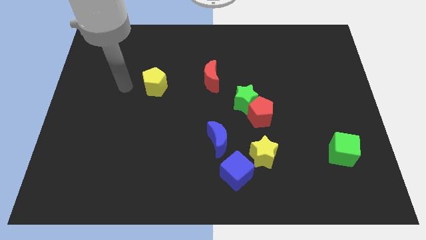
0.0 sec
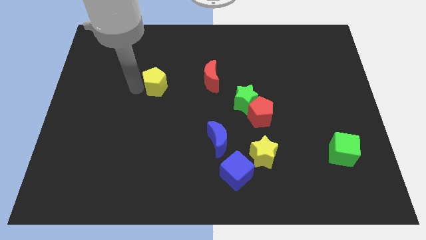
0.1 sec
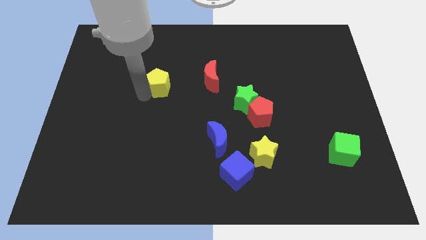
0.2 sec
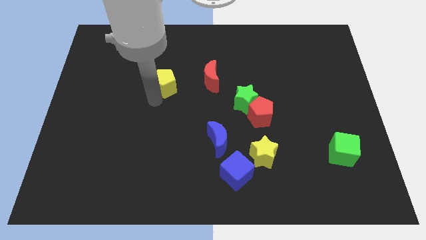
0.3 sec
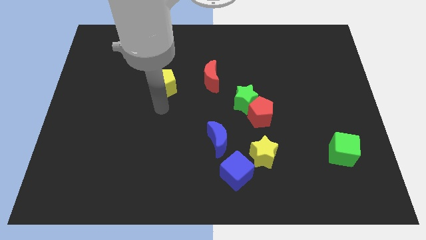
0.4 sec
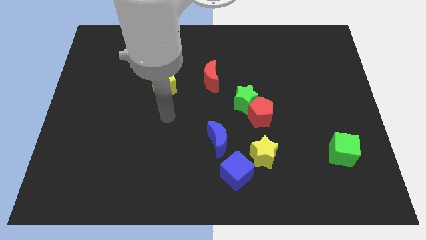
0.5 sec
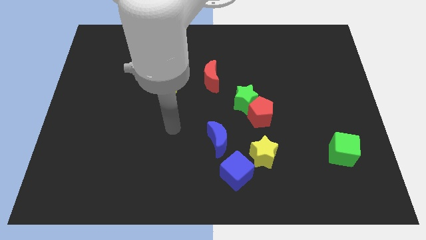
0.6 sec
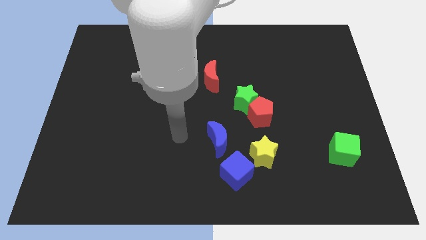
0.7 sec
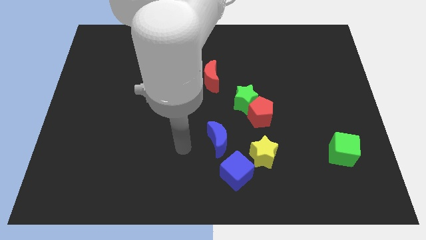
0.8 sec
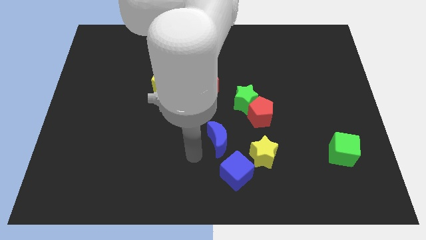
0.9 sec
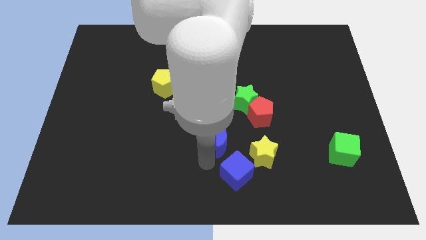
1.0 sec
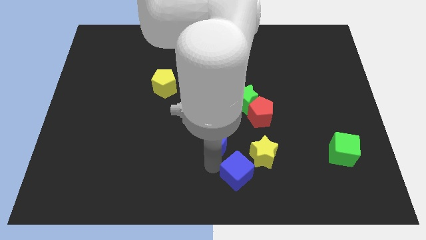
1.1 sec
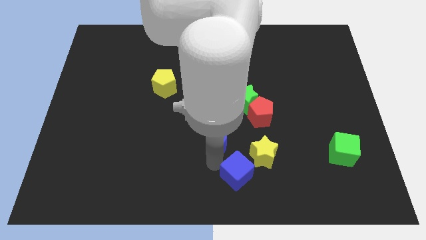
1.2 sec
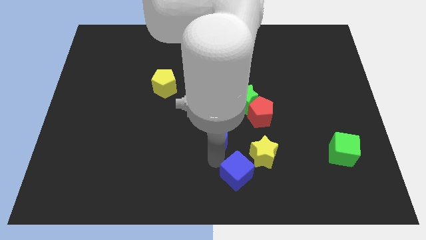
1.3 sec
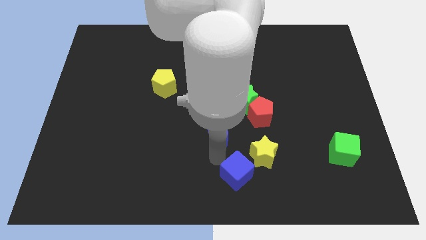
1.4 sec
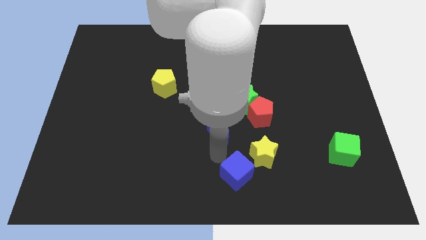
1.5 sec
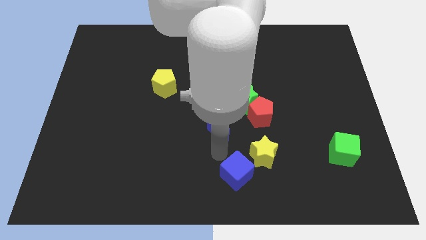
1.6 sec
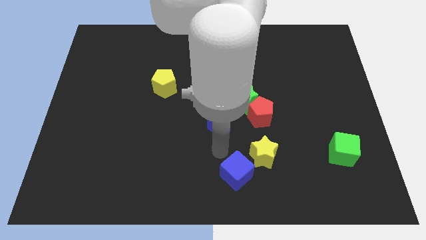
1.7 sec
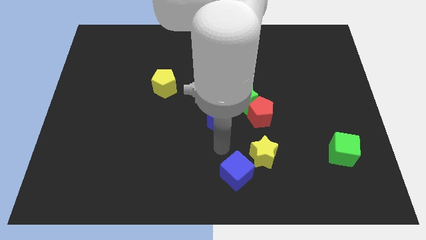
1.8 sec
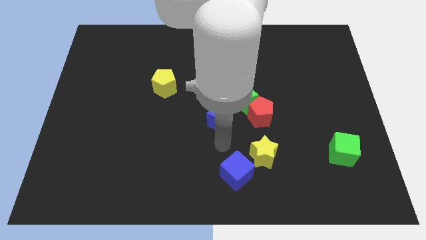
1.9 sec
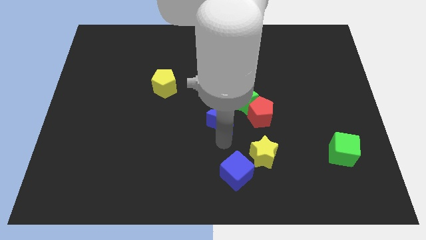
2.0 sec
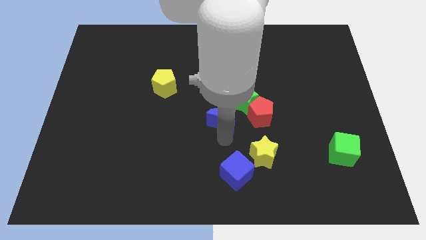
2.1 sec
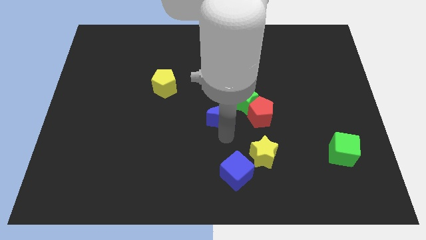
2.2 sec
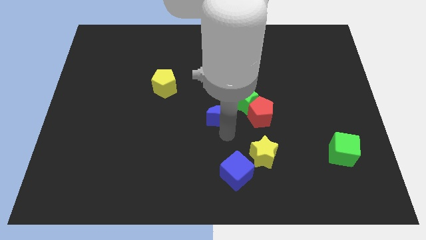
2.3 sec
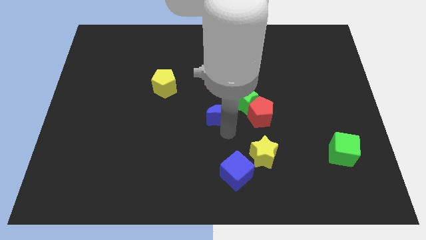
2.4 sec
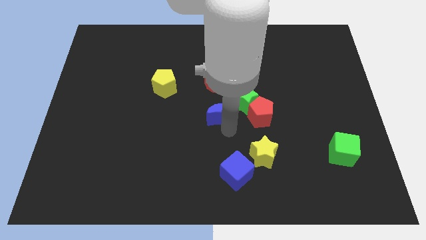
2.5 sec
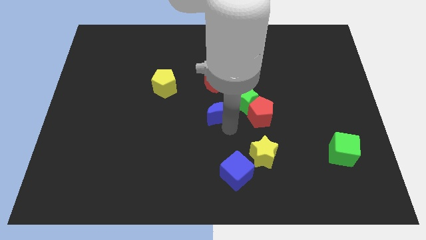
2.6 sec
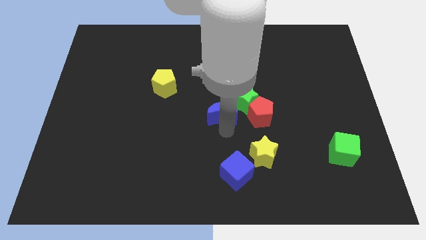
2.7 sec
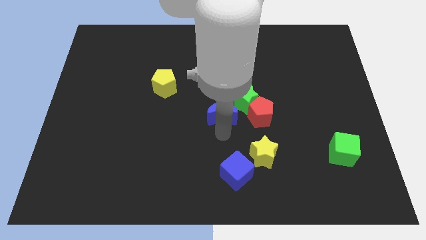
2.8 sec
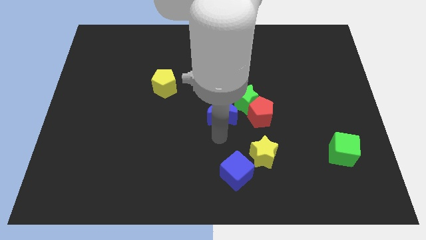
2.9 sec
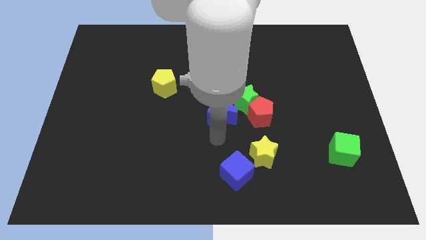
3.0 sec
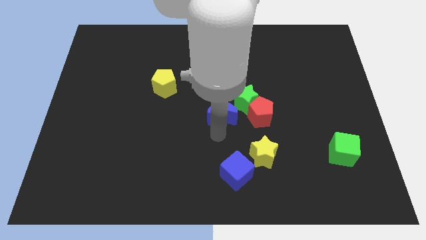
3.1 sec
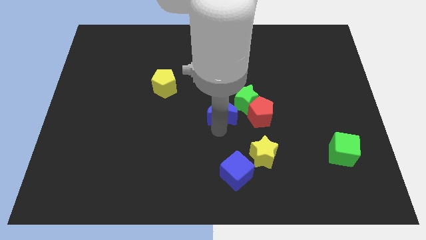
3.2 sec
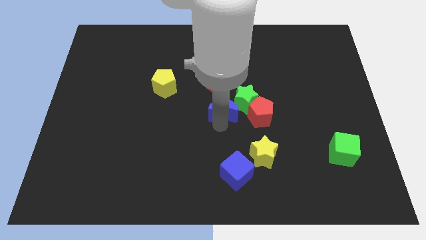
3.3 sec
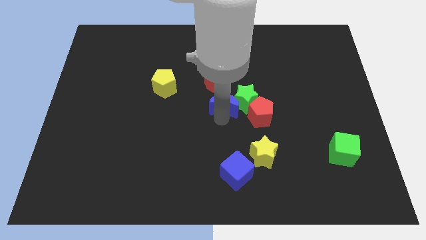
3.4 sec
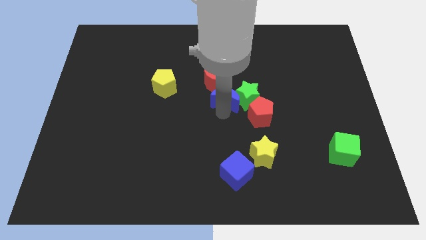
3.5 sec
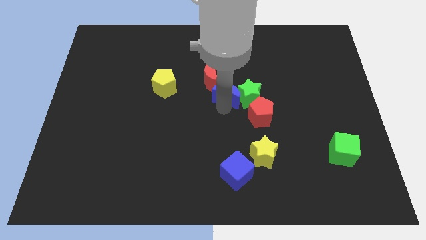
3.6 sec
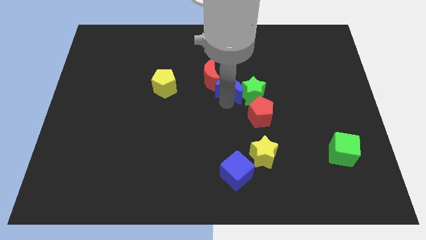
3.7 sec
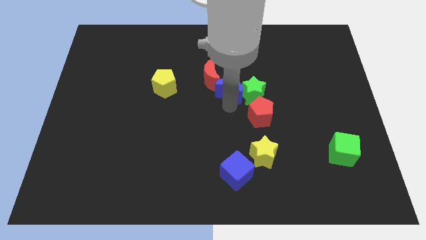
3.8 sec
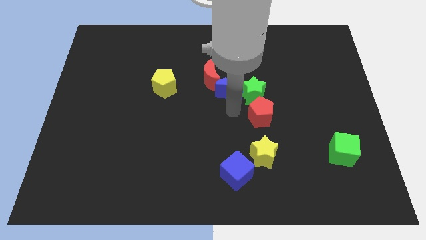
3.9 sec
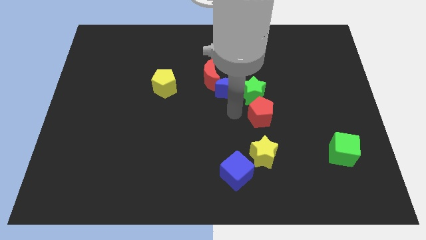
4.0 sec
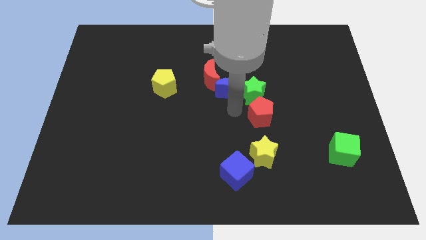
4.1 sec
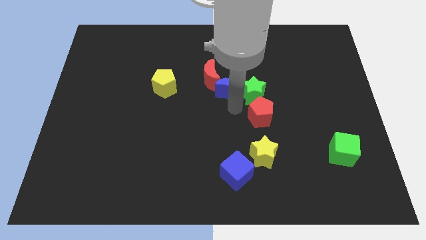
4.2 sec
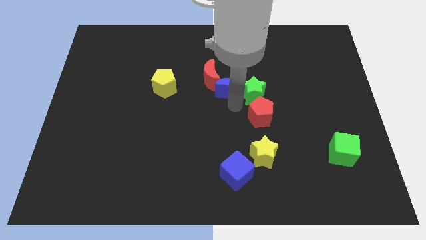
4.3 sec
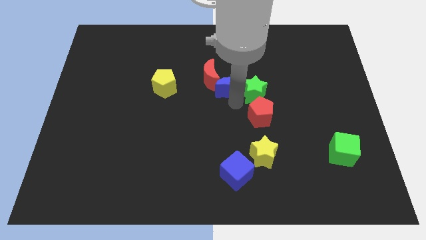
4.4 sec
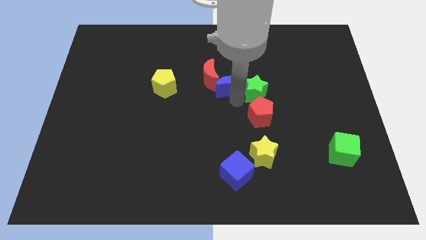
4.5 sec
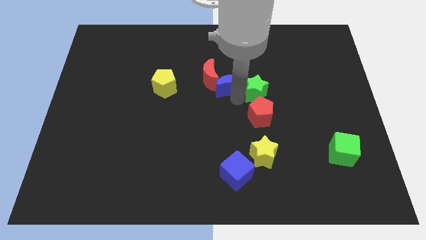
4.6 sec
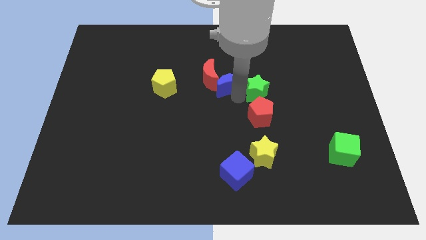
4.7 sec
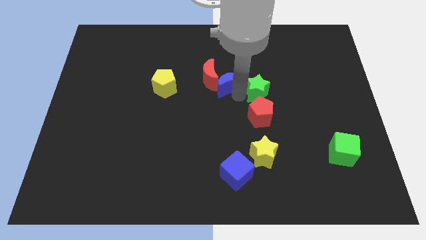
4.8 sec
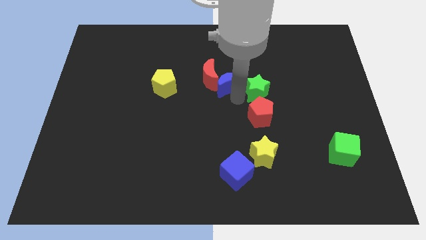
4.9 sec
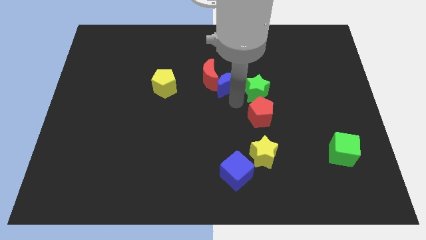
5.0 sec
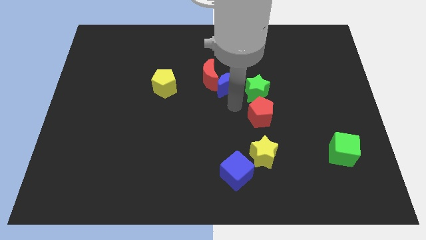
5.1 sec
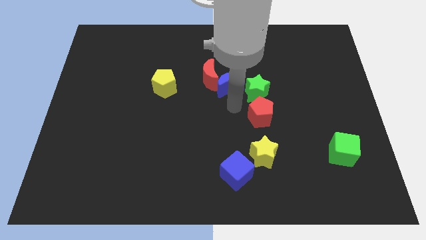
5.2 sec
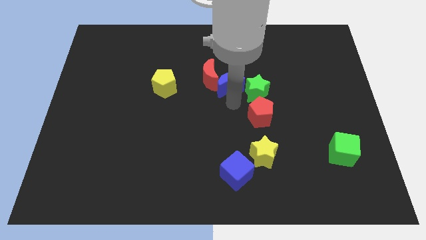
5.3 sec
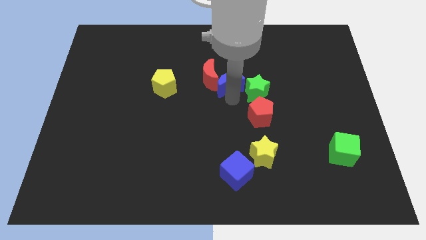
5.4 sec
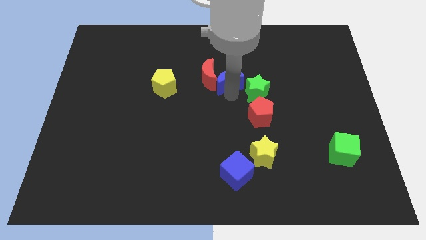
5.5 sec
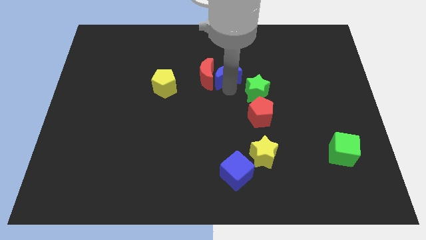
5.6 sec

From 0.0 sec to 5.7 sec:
move the blue moon to the top right of the red moon

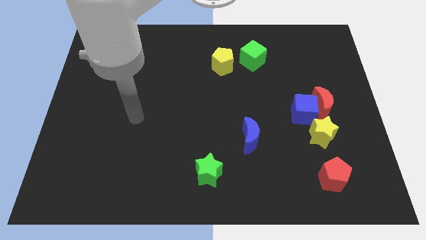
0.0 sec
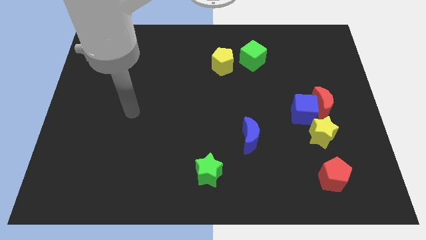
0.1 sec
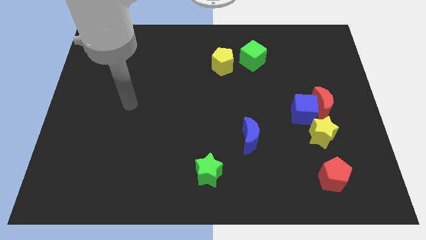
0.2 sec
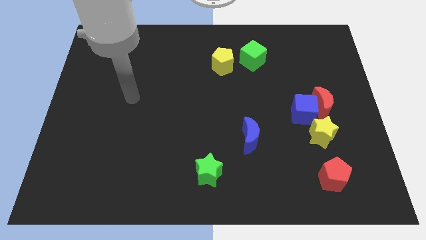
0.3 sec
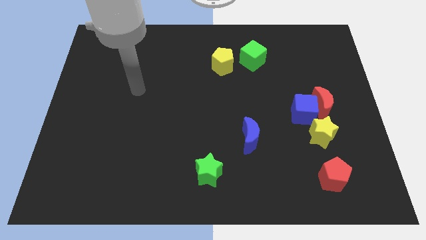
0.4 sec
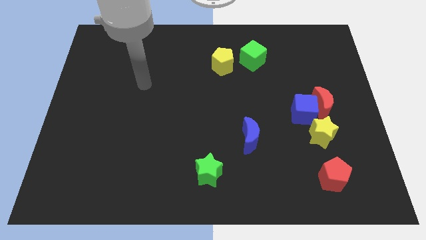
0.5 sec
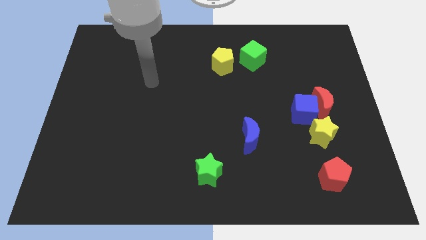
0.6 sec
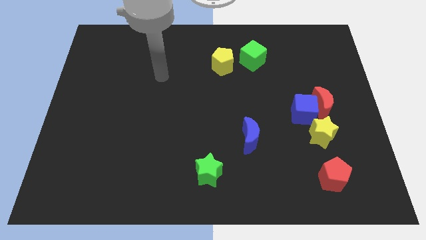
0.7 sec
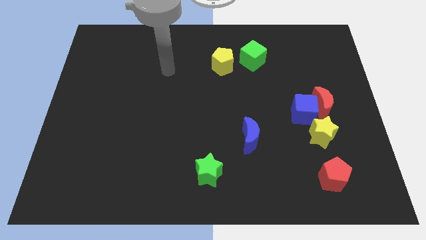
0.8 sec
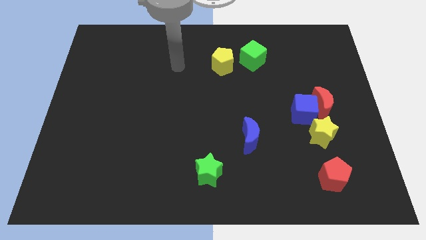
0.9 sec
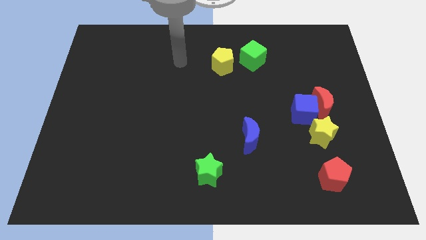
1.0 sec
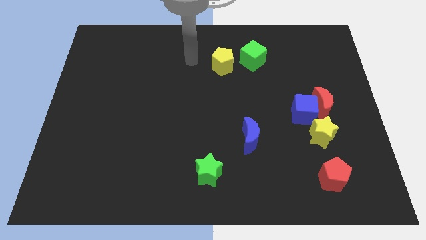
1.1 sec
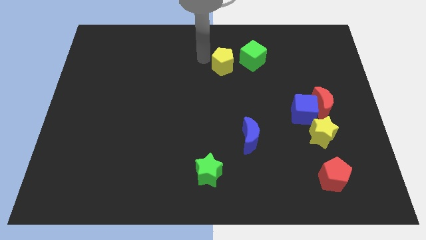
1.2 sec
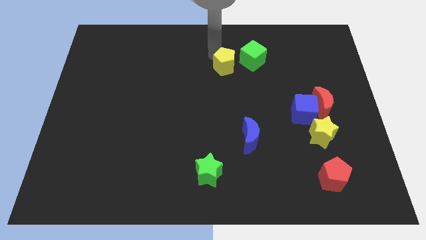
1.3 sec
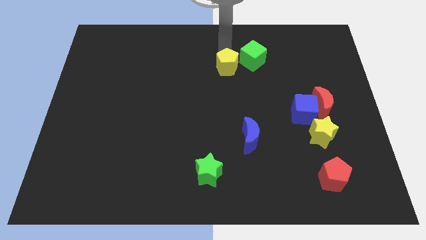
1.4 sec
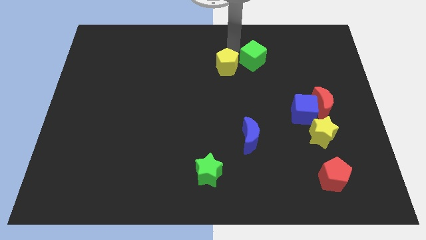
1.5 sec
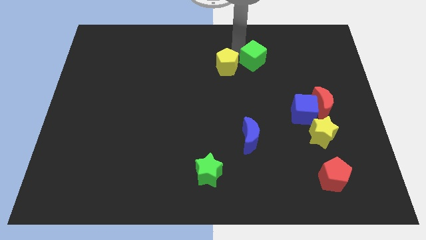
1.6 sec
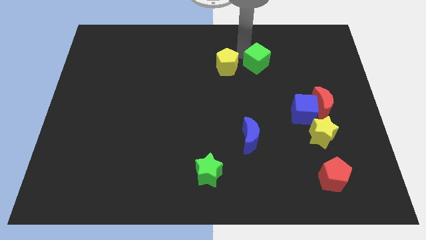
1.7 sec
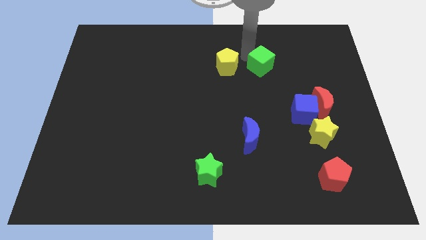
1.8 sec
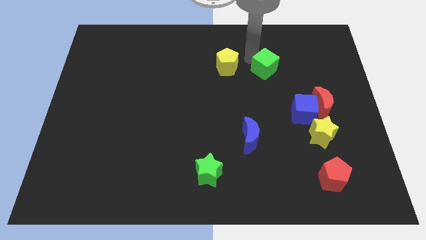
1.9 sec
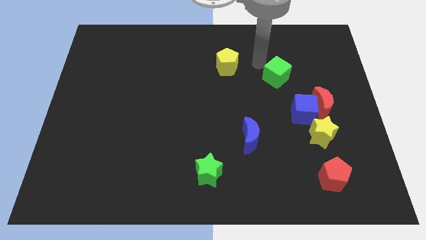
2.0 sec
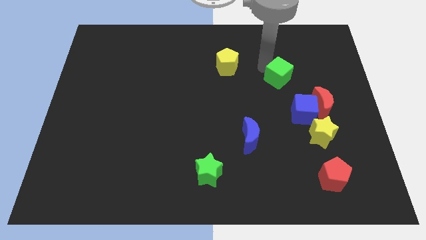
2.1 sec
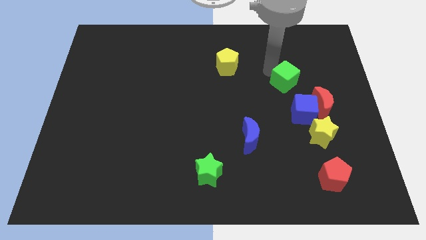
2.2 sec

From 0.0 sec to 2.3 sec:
put the green cube to the top left of the red moon

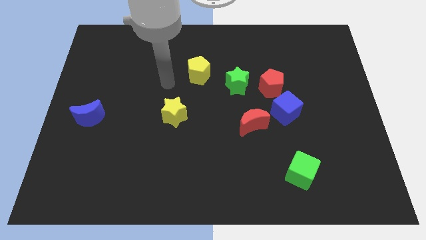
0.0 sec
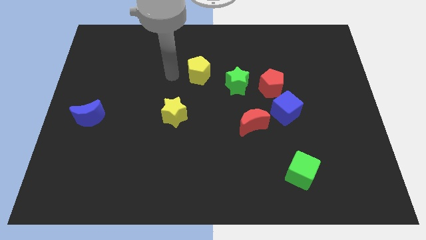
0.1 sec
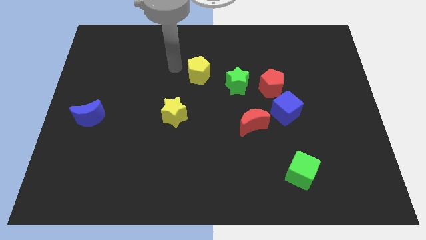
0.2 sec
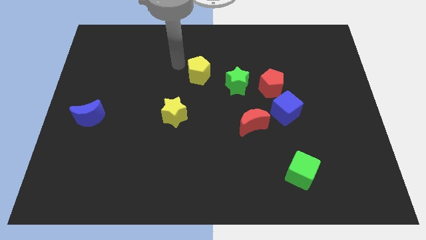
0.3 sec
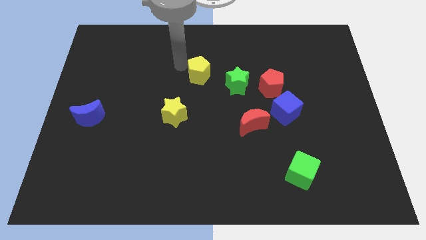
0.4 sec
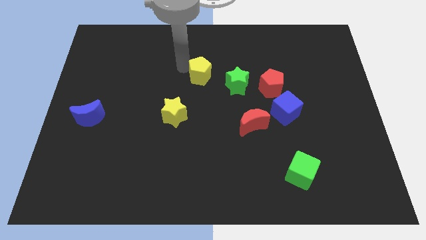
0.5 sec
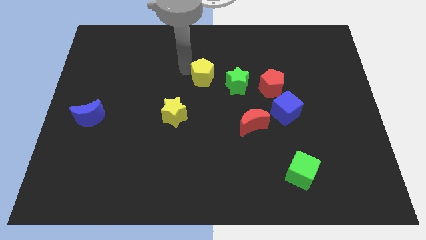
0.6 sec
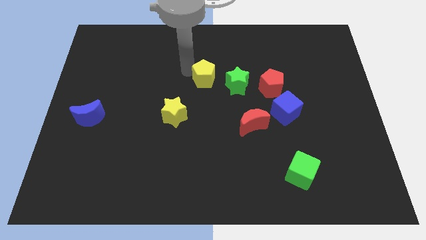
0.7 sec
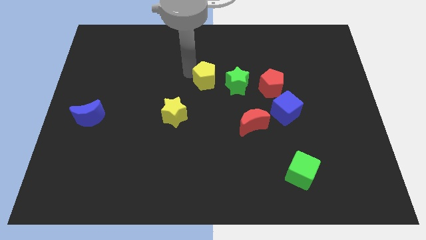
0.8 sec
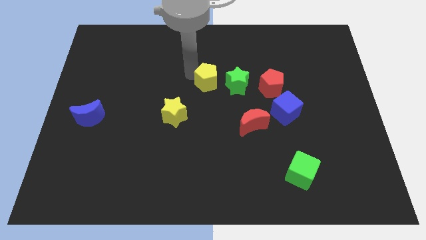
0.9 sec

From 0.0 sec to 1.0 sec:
push the yellow pentagon left of the red pentagon
